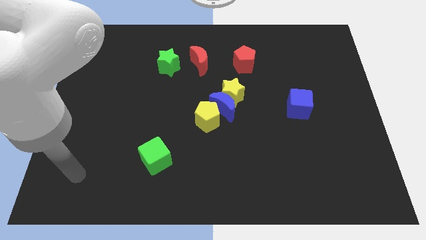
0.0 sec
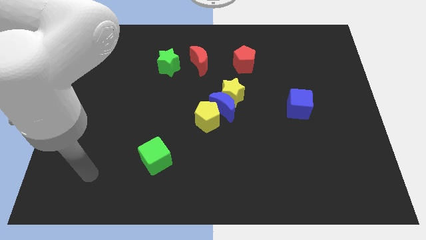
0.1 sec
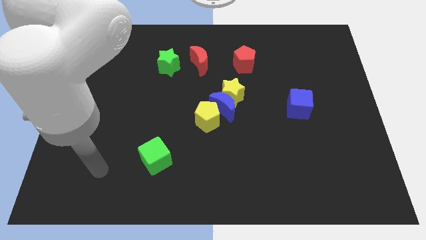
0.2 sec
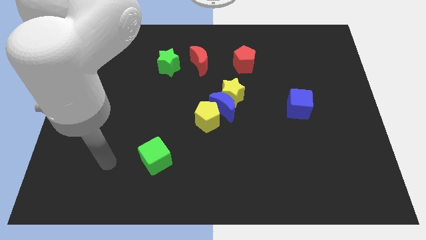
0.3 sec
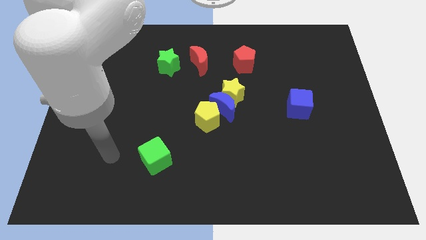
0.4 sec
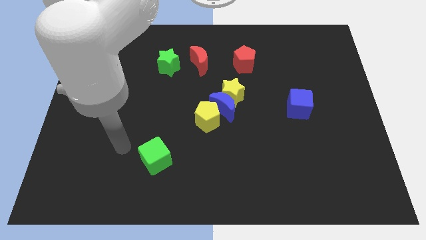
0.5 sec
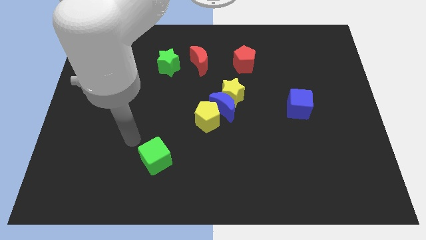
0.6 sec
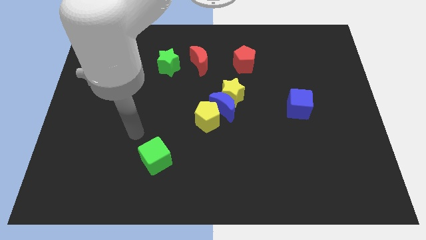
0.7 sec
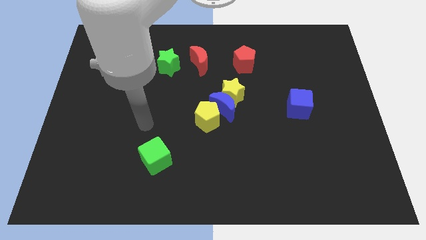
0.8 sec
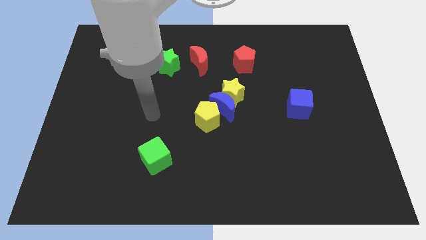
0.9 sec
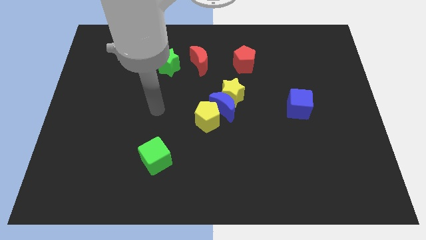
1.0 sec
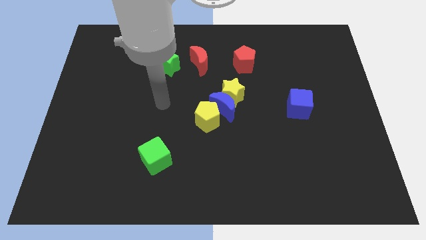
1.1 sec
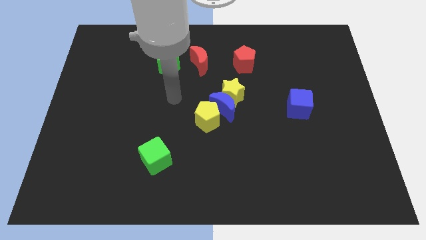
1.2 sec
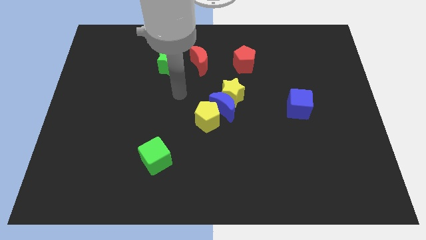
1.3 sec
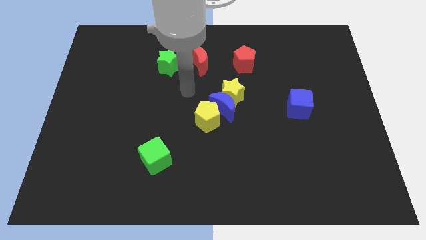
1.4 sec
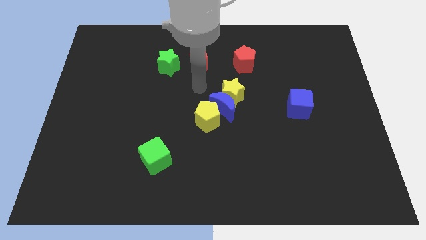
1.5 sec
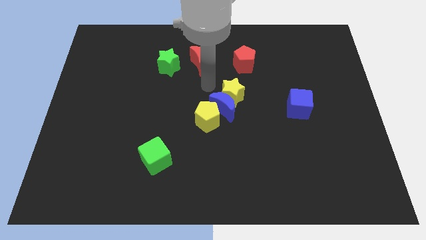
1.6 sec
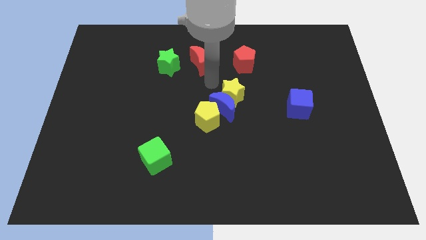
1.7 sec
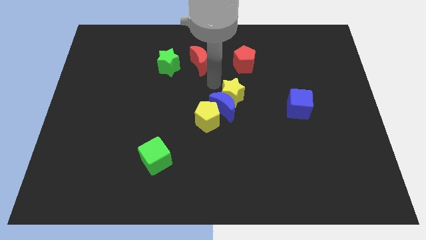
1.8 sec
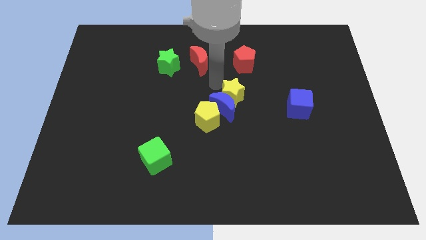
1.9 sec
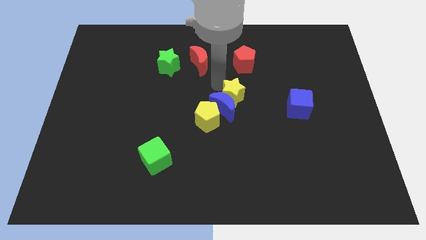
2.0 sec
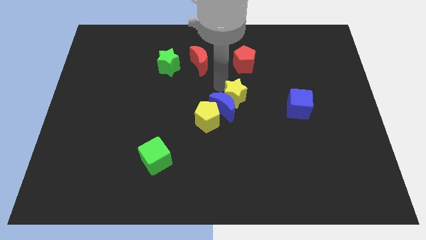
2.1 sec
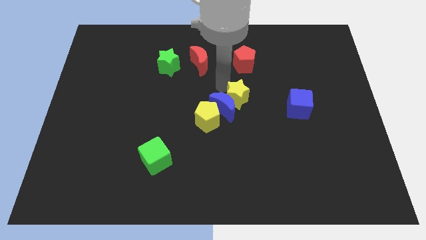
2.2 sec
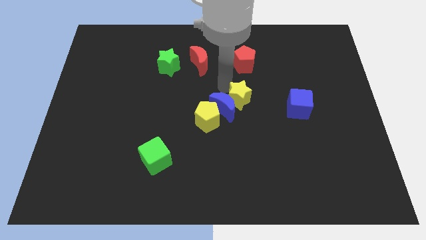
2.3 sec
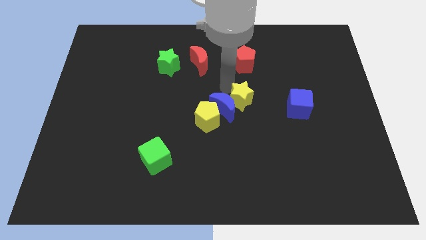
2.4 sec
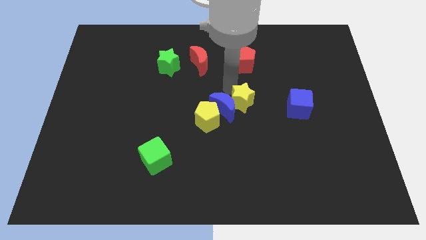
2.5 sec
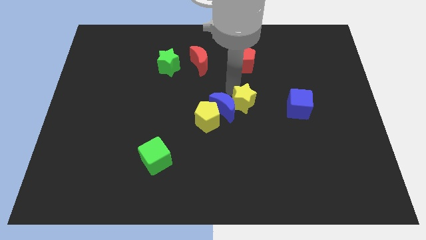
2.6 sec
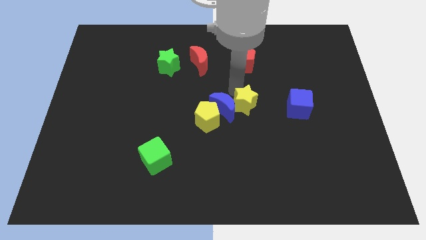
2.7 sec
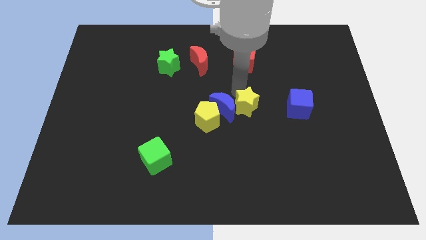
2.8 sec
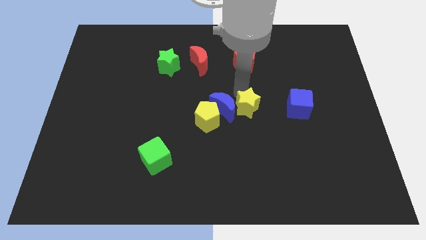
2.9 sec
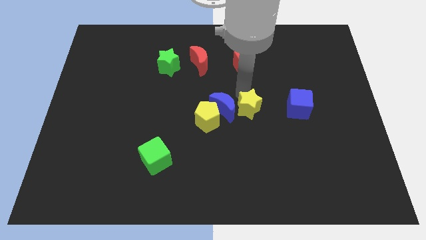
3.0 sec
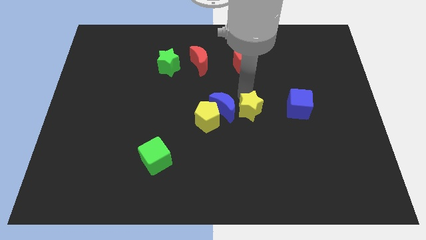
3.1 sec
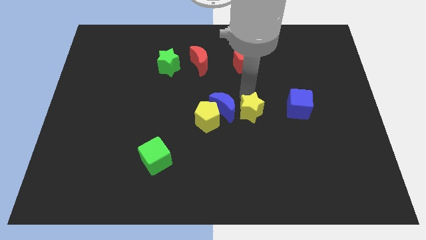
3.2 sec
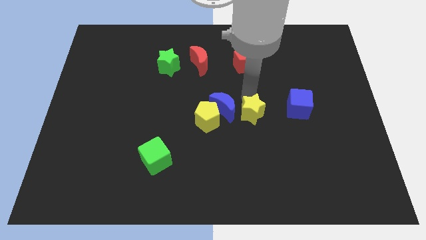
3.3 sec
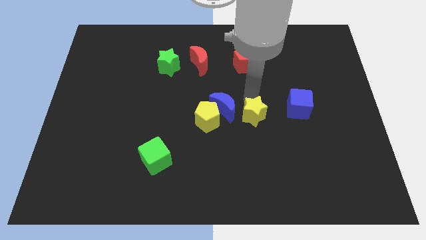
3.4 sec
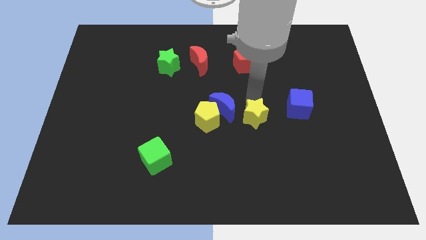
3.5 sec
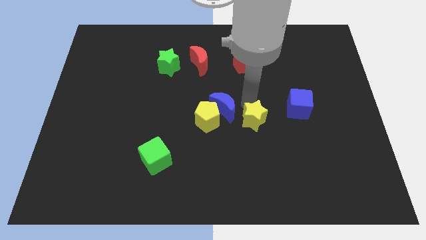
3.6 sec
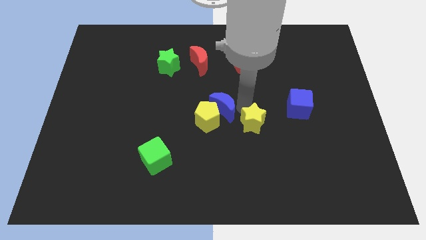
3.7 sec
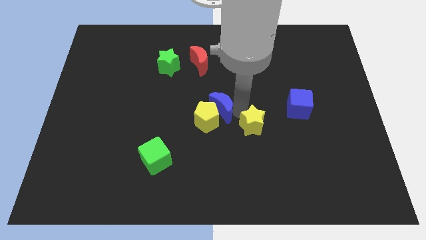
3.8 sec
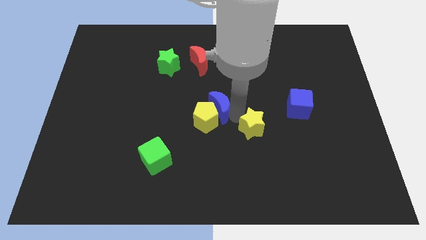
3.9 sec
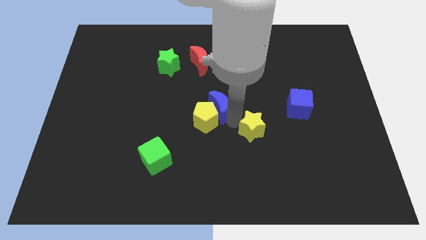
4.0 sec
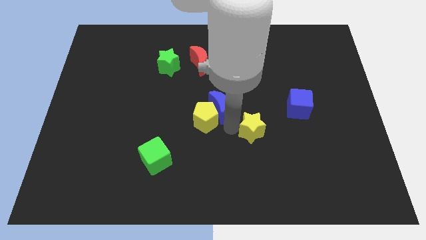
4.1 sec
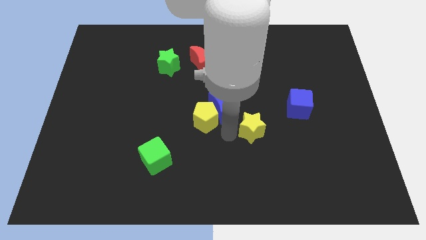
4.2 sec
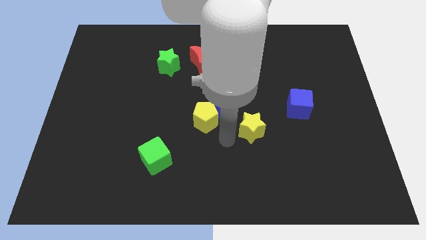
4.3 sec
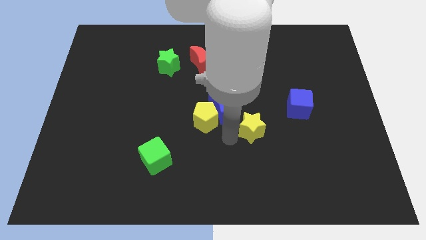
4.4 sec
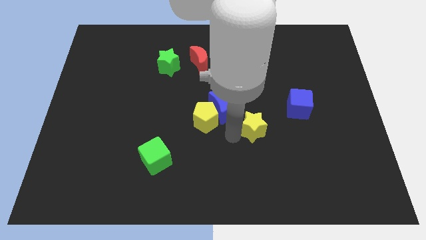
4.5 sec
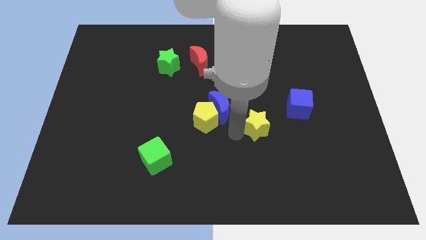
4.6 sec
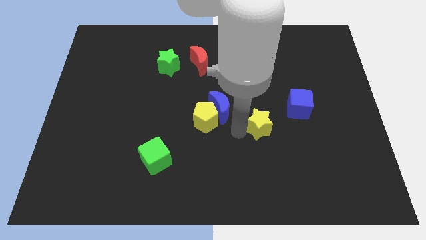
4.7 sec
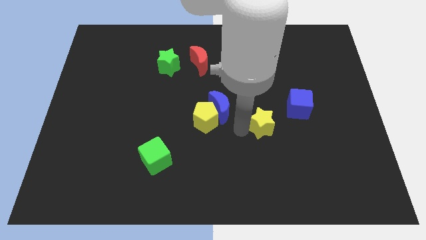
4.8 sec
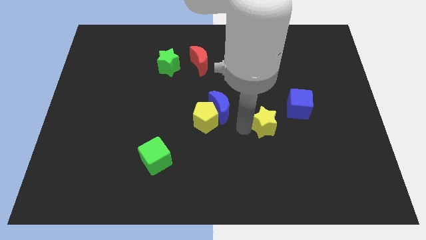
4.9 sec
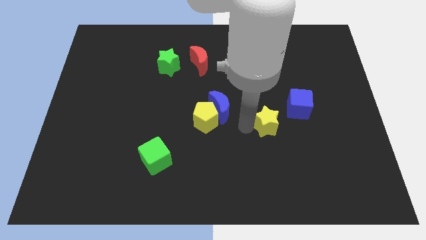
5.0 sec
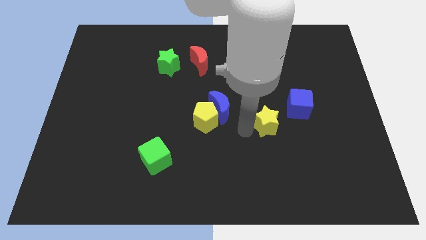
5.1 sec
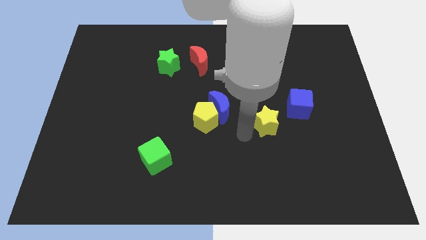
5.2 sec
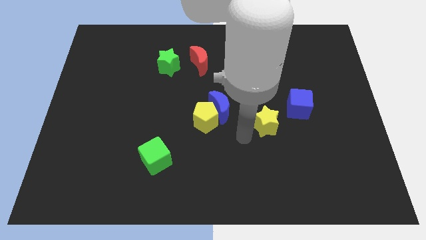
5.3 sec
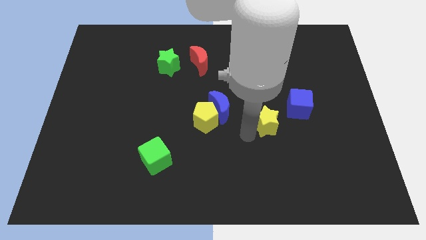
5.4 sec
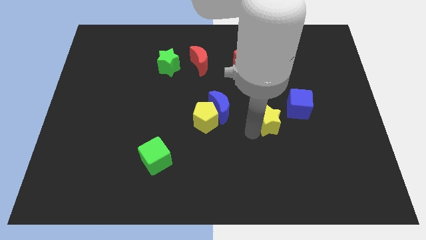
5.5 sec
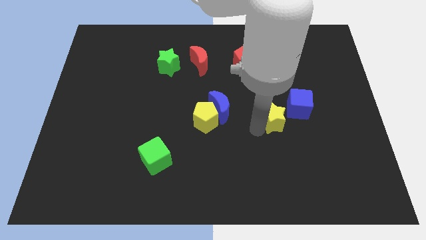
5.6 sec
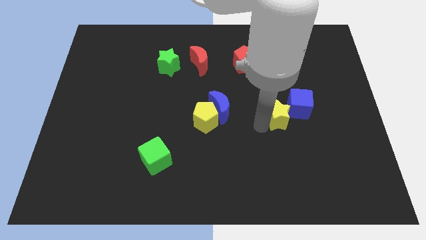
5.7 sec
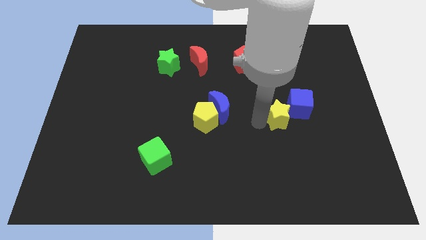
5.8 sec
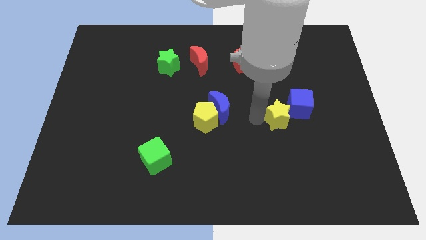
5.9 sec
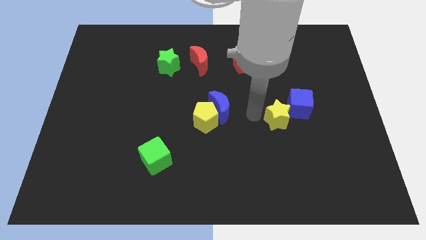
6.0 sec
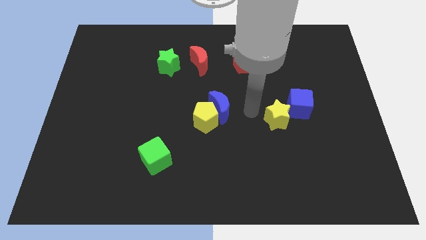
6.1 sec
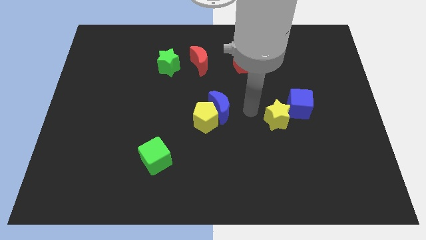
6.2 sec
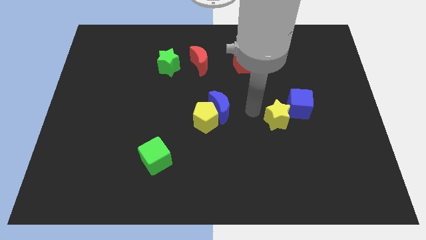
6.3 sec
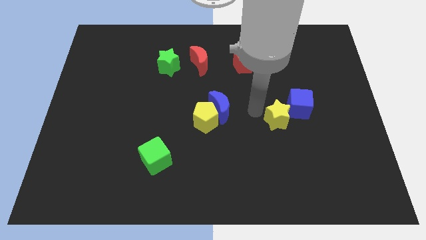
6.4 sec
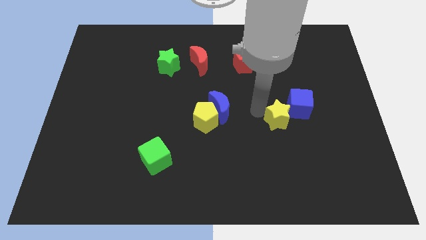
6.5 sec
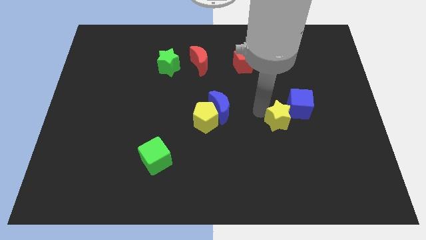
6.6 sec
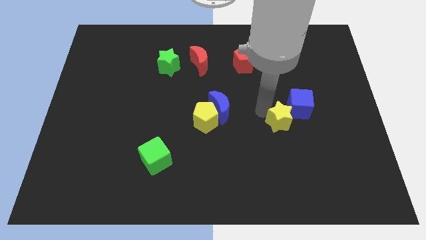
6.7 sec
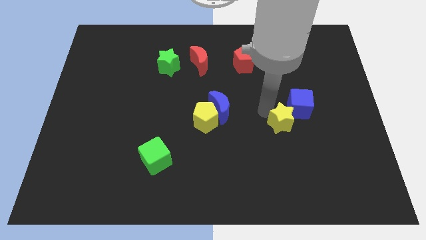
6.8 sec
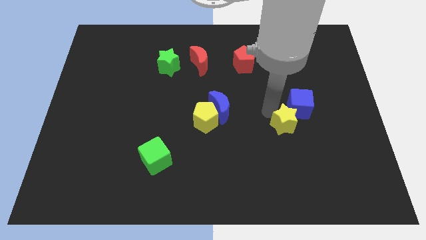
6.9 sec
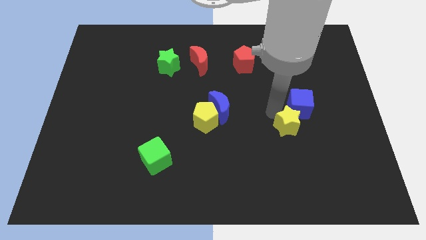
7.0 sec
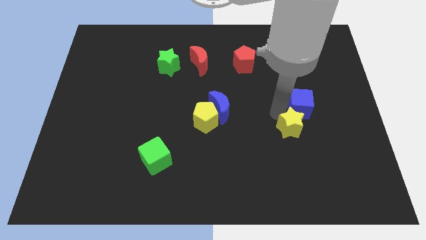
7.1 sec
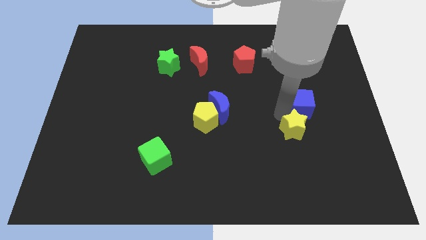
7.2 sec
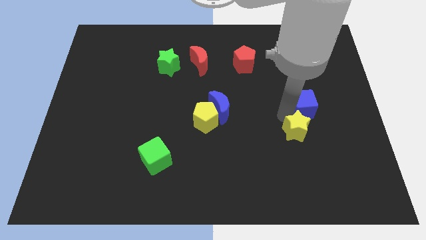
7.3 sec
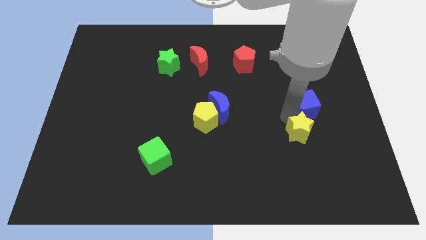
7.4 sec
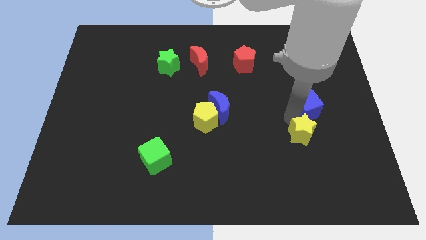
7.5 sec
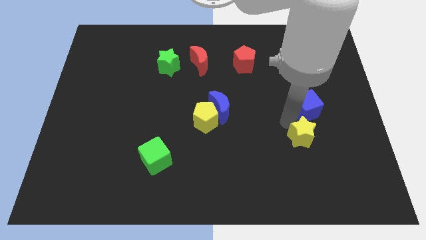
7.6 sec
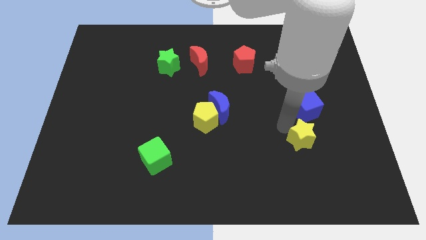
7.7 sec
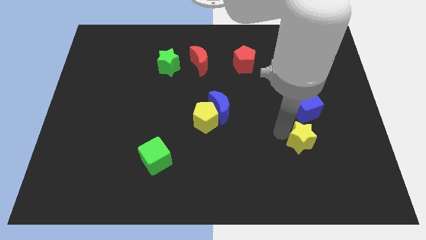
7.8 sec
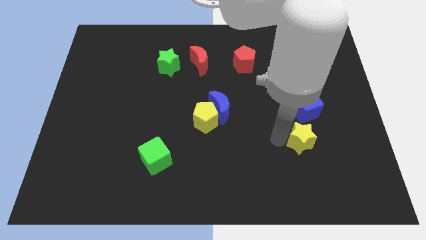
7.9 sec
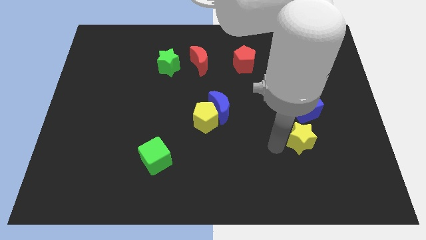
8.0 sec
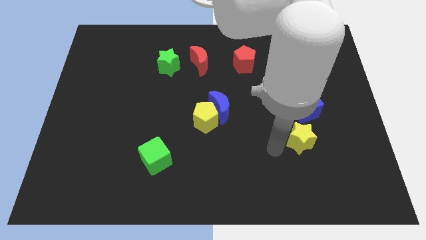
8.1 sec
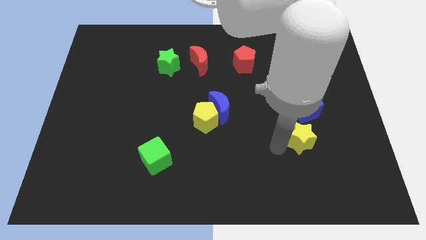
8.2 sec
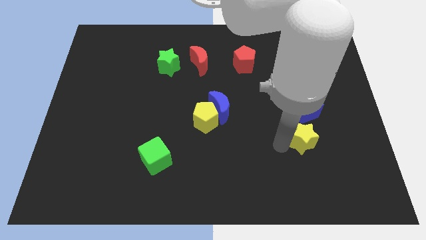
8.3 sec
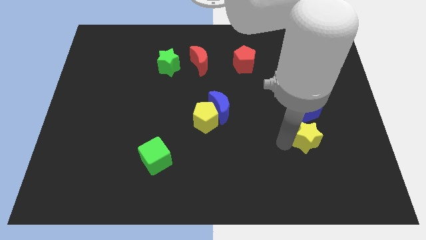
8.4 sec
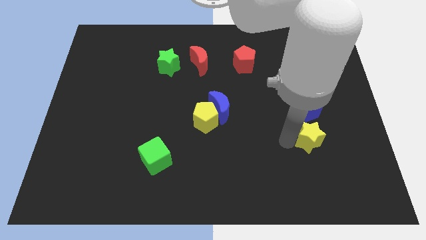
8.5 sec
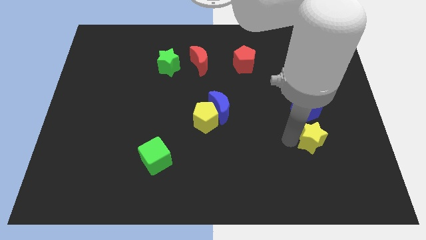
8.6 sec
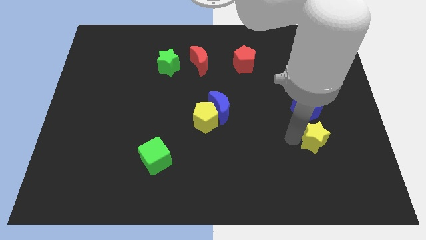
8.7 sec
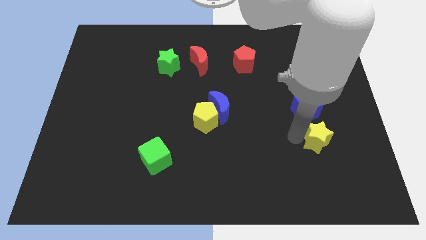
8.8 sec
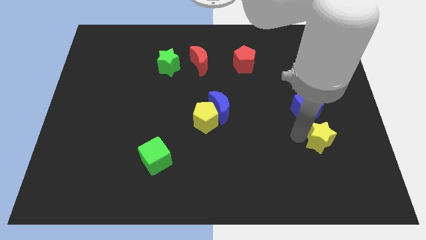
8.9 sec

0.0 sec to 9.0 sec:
move the yellow star to the bottom right side of the blue cube
